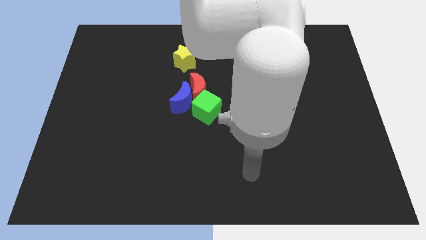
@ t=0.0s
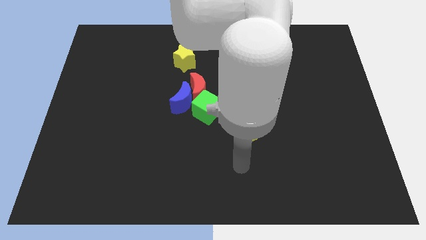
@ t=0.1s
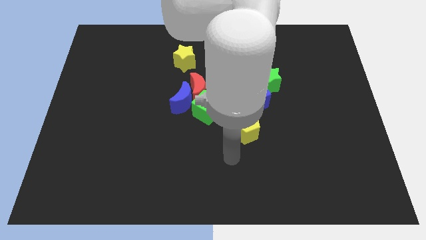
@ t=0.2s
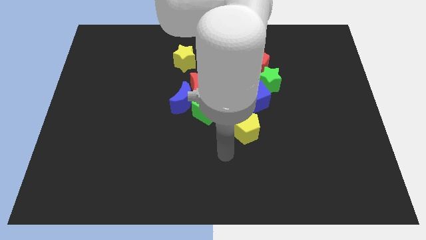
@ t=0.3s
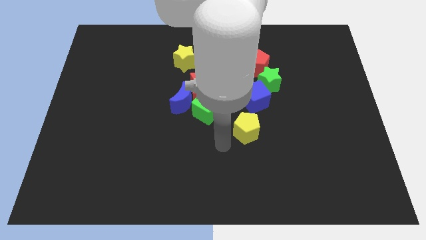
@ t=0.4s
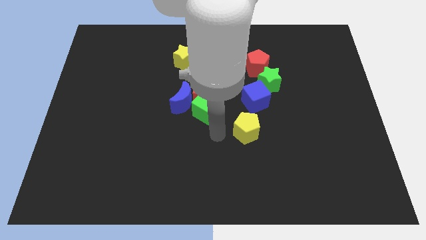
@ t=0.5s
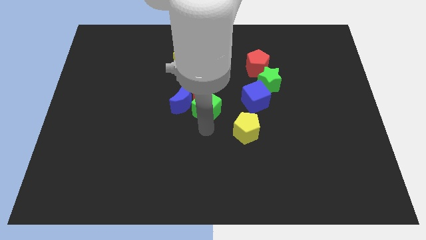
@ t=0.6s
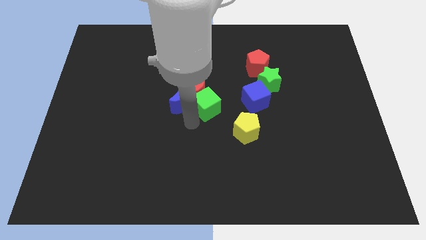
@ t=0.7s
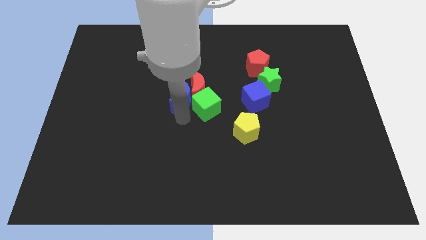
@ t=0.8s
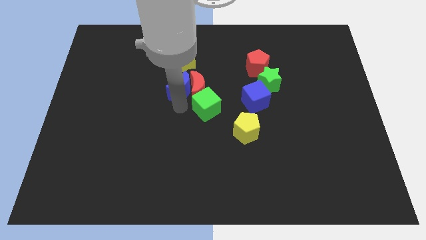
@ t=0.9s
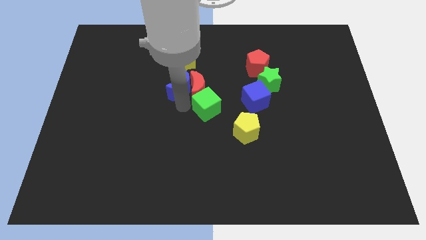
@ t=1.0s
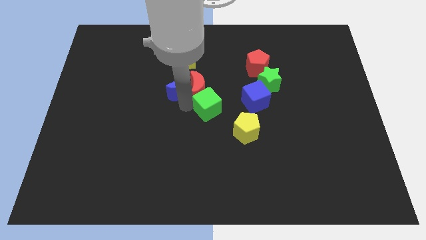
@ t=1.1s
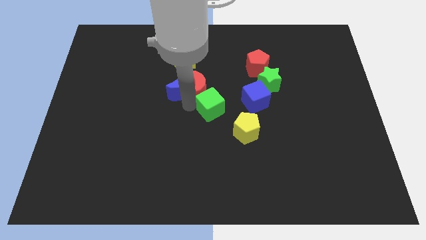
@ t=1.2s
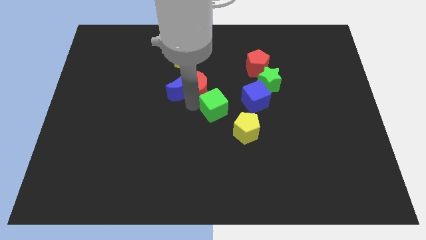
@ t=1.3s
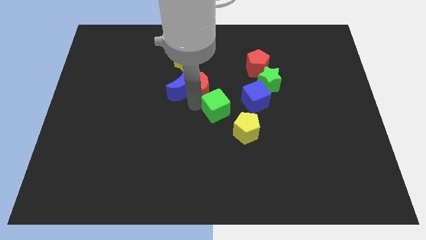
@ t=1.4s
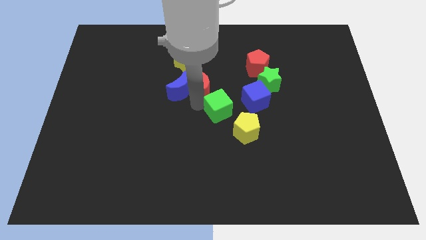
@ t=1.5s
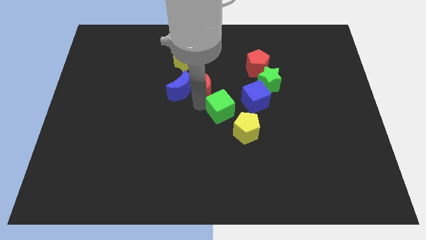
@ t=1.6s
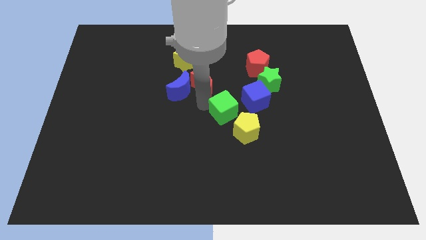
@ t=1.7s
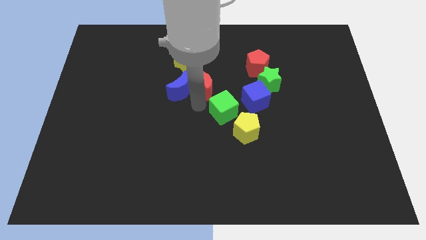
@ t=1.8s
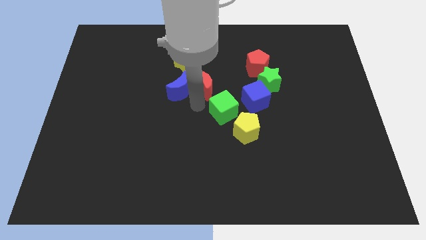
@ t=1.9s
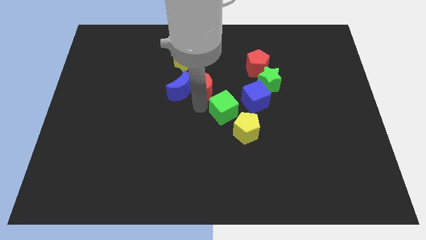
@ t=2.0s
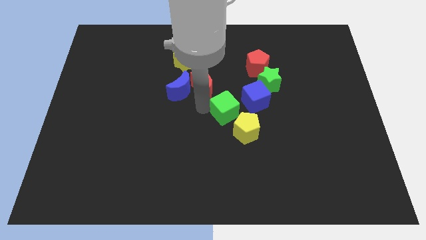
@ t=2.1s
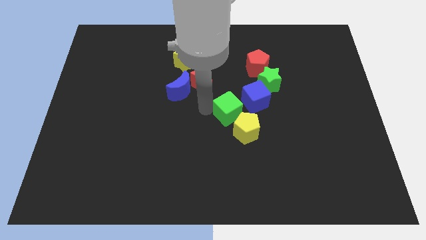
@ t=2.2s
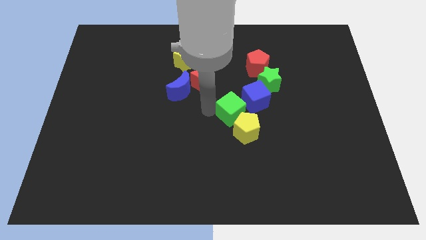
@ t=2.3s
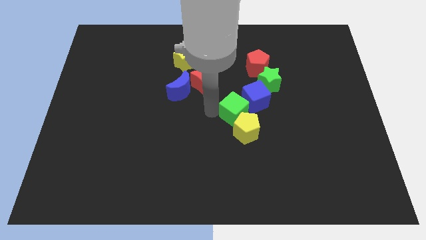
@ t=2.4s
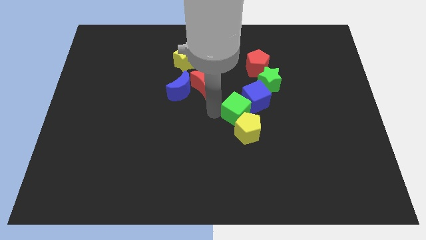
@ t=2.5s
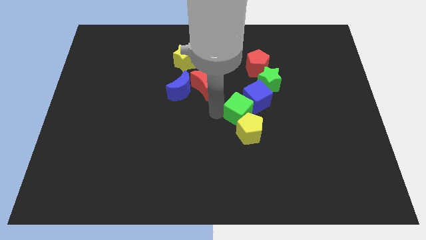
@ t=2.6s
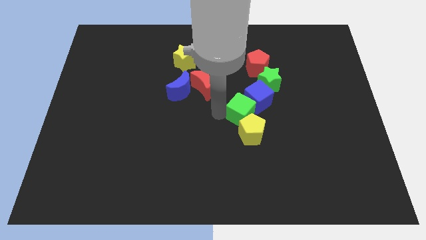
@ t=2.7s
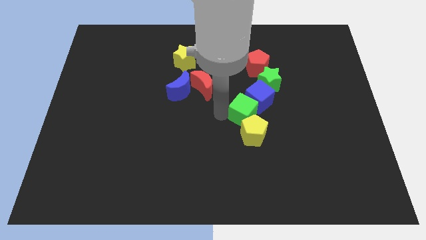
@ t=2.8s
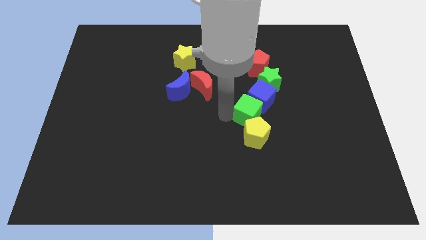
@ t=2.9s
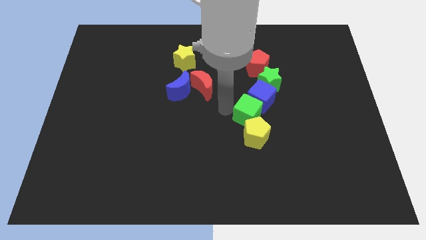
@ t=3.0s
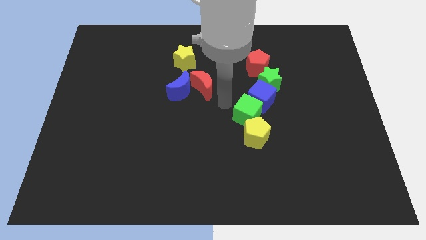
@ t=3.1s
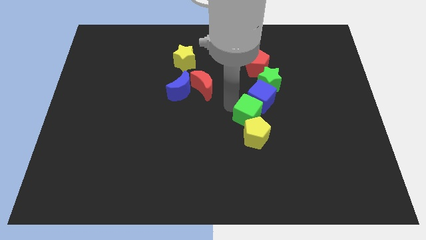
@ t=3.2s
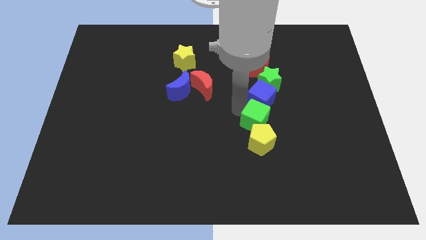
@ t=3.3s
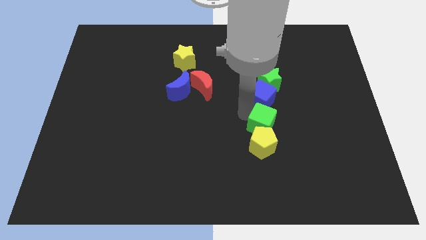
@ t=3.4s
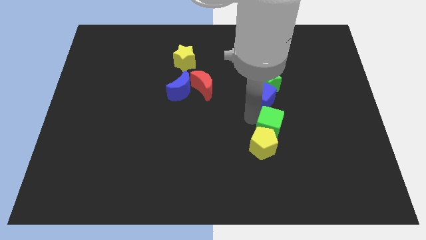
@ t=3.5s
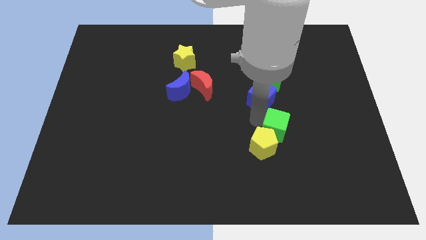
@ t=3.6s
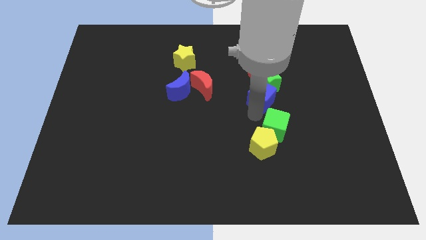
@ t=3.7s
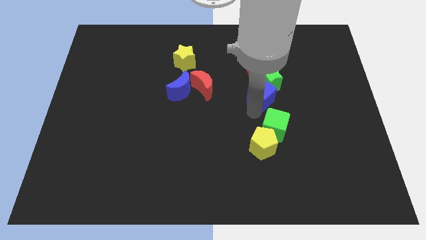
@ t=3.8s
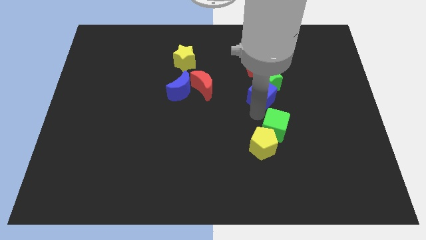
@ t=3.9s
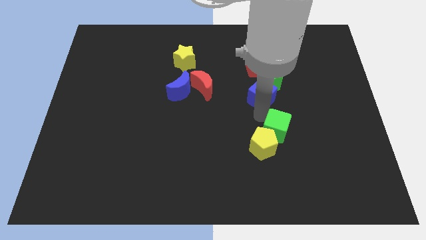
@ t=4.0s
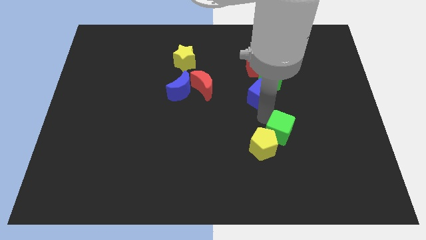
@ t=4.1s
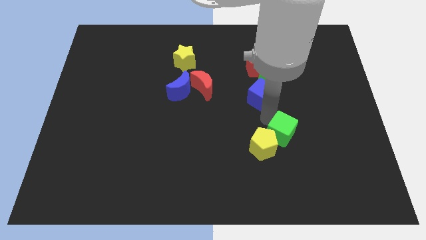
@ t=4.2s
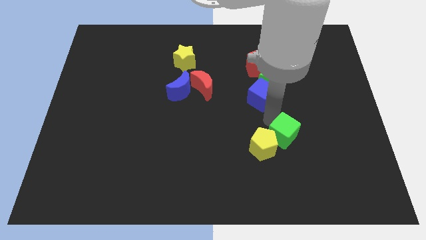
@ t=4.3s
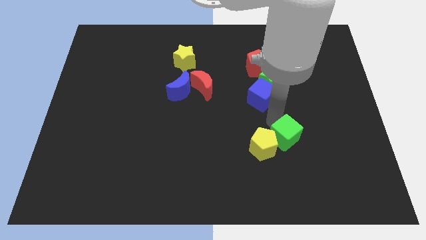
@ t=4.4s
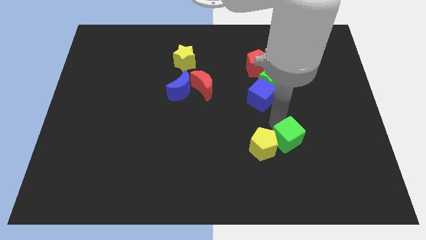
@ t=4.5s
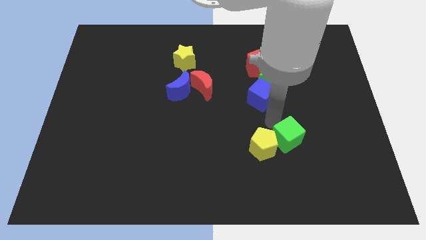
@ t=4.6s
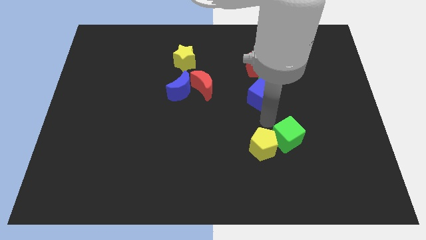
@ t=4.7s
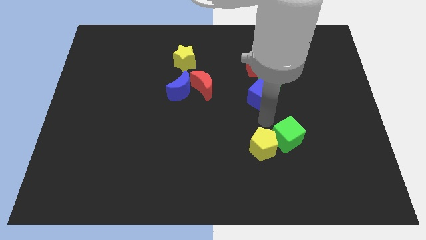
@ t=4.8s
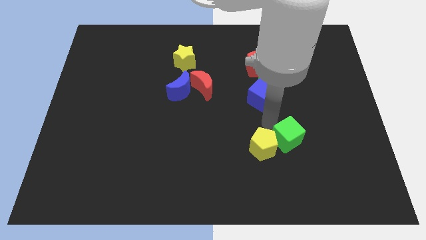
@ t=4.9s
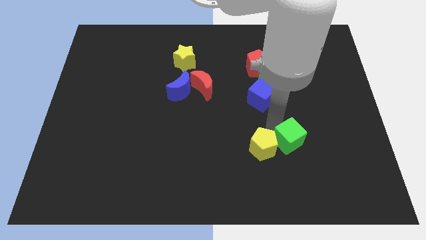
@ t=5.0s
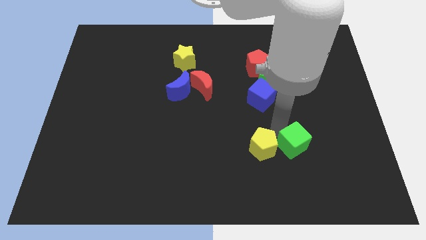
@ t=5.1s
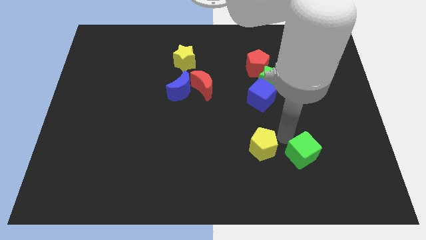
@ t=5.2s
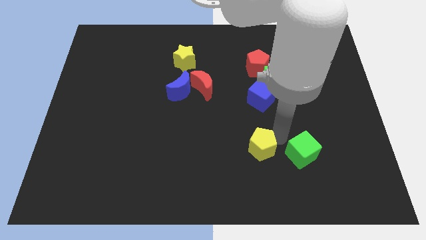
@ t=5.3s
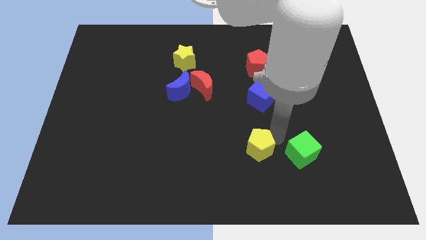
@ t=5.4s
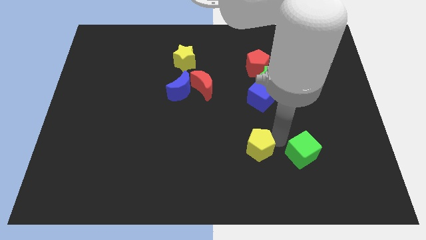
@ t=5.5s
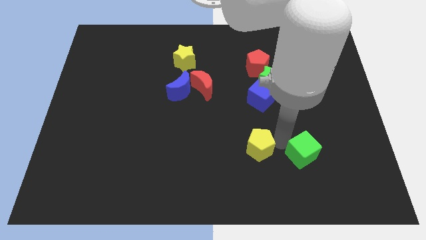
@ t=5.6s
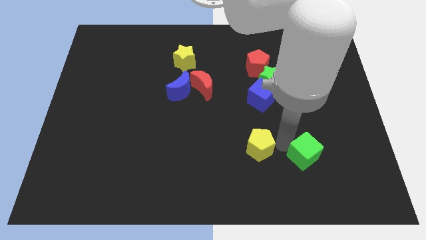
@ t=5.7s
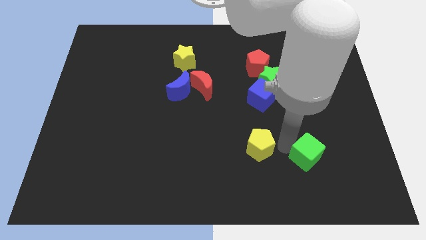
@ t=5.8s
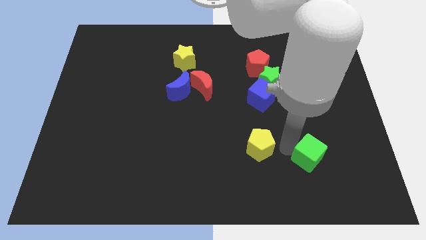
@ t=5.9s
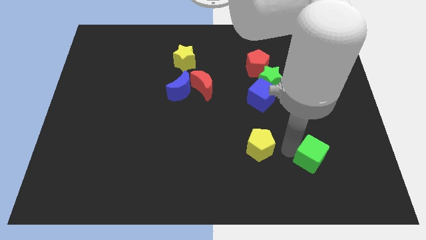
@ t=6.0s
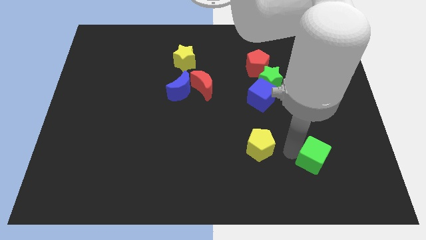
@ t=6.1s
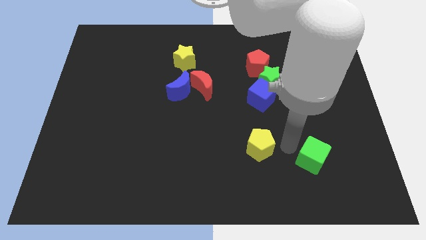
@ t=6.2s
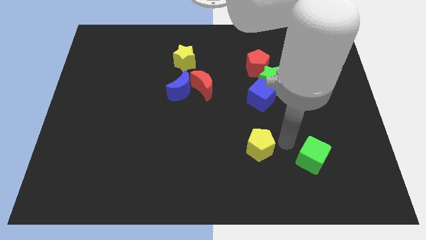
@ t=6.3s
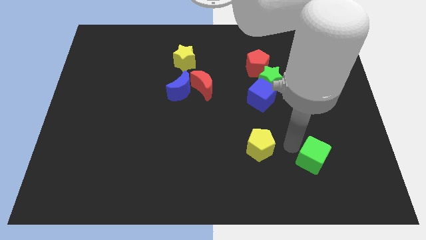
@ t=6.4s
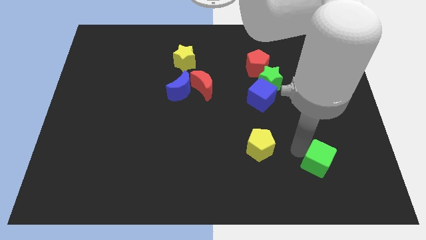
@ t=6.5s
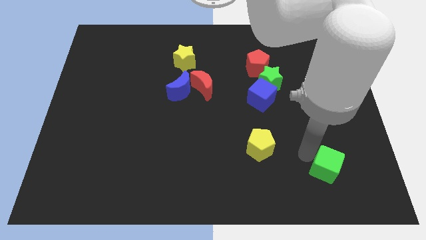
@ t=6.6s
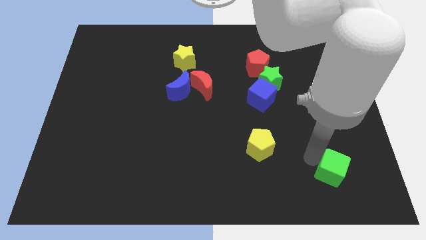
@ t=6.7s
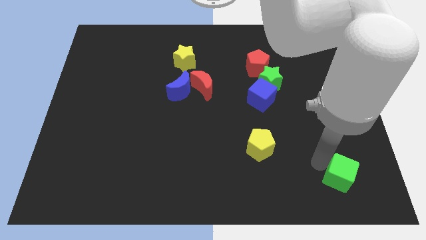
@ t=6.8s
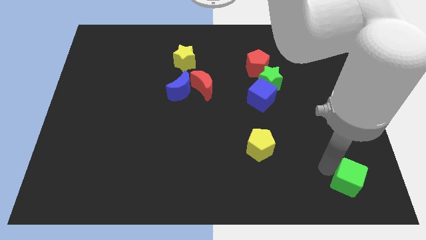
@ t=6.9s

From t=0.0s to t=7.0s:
put the green cube to the lower right corner
